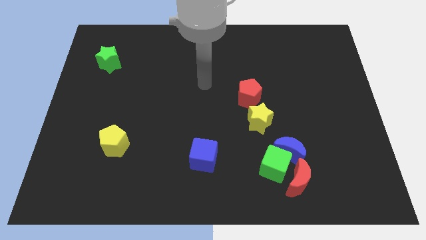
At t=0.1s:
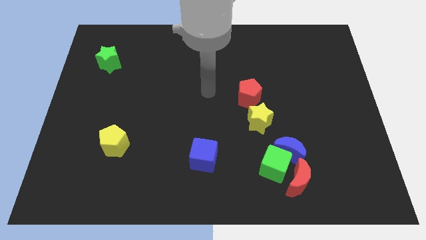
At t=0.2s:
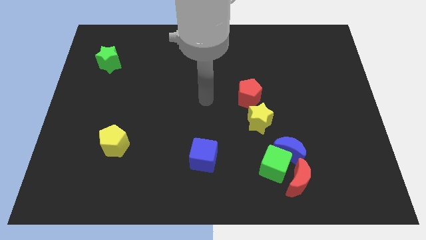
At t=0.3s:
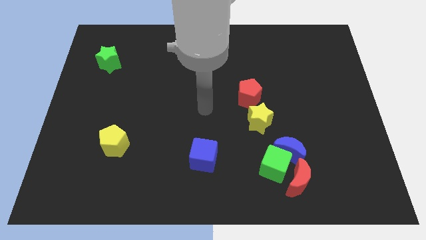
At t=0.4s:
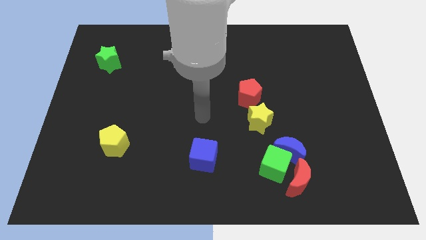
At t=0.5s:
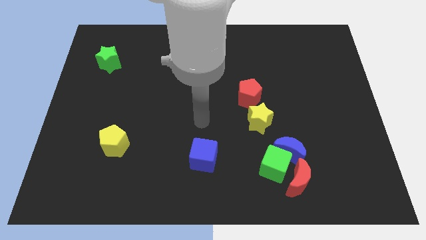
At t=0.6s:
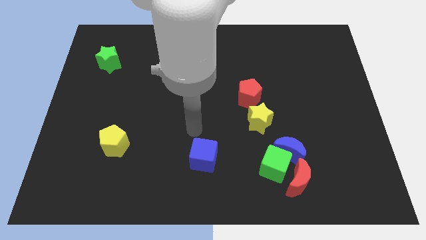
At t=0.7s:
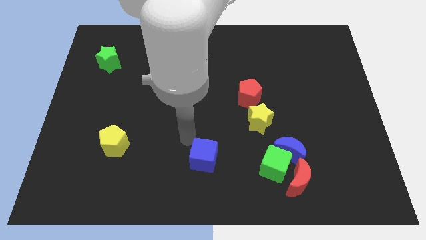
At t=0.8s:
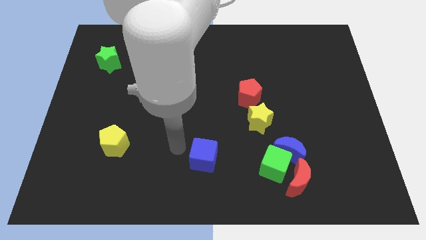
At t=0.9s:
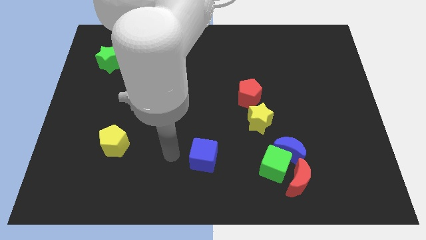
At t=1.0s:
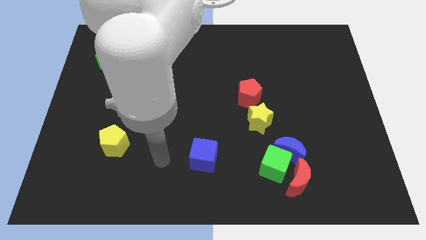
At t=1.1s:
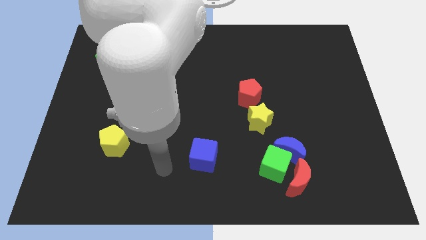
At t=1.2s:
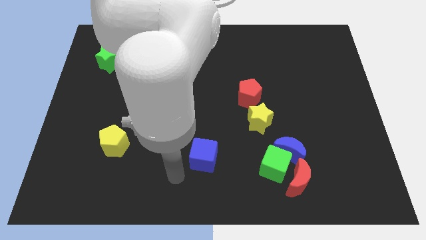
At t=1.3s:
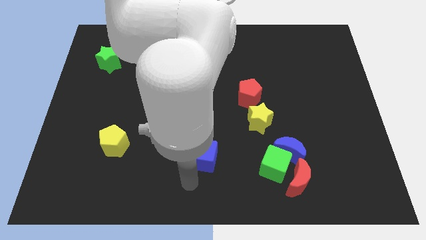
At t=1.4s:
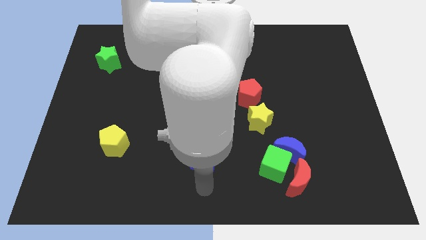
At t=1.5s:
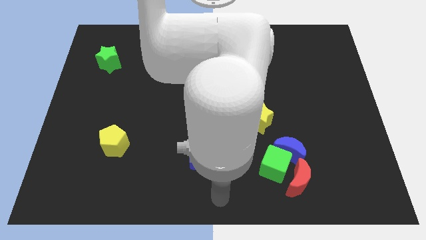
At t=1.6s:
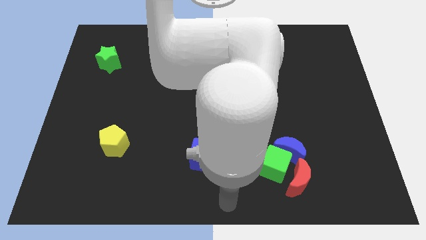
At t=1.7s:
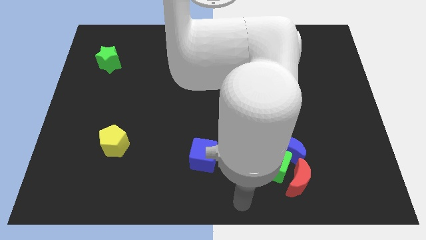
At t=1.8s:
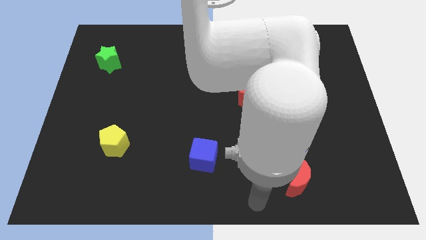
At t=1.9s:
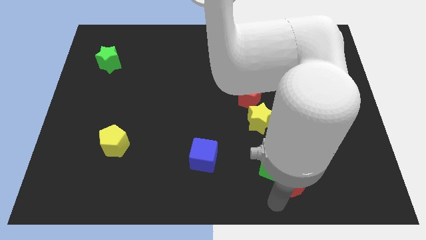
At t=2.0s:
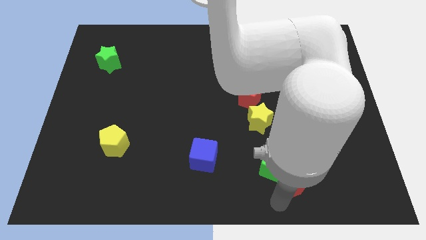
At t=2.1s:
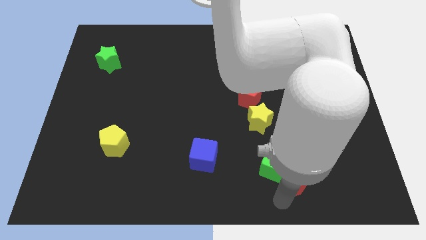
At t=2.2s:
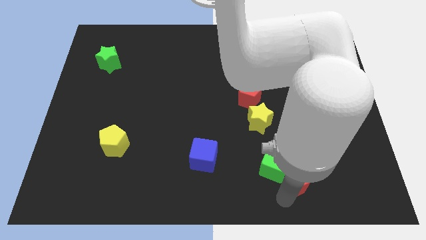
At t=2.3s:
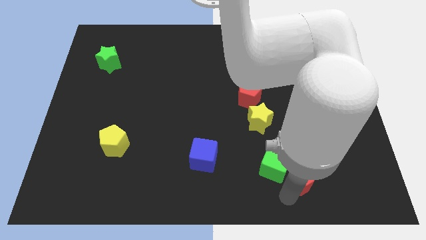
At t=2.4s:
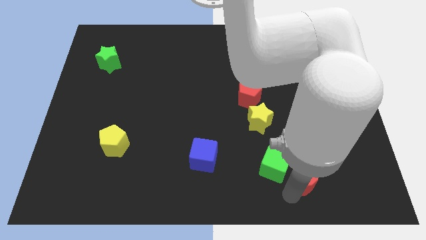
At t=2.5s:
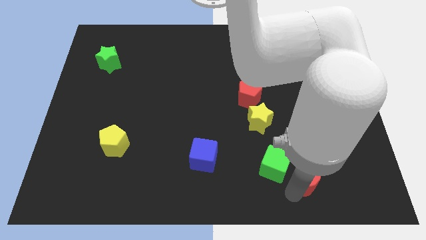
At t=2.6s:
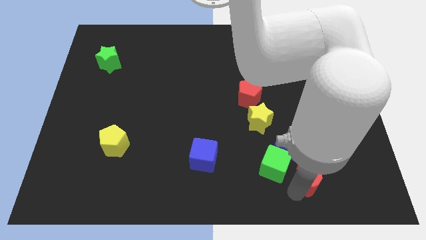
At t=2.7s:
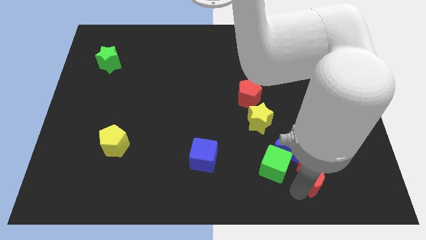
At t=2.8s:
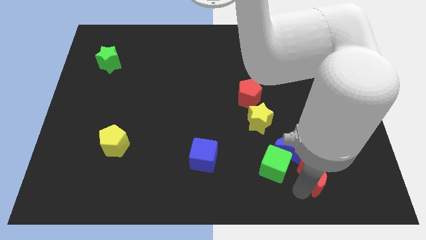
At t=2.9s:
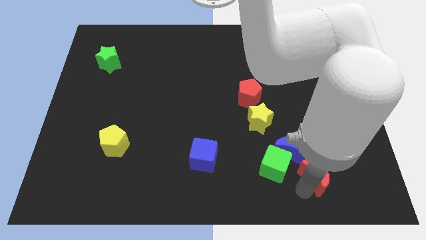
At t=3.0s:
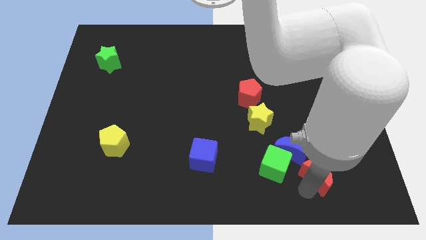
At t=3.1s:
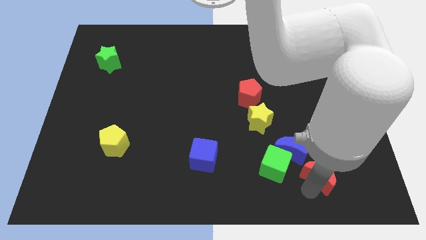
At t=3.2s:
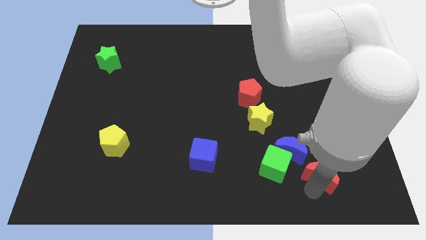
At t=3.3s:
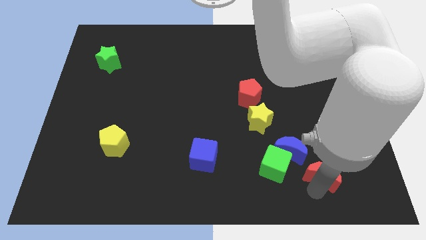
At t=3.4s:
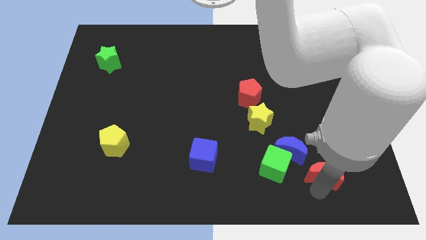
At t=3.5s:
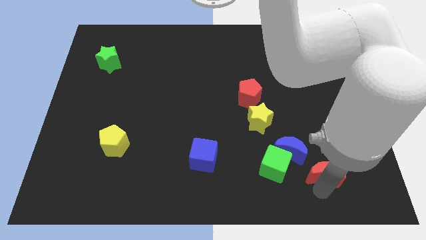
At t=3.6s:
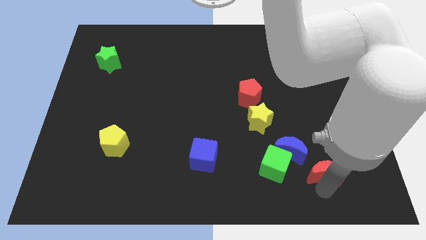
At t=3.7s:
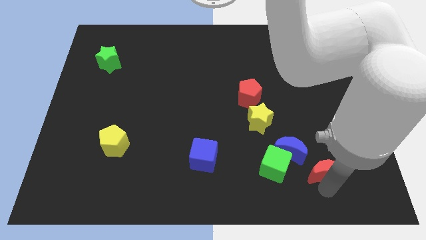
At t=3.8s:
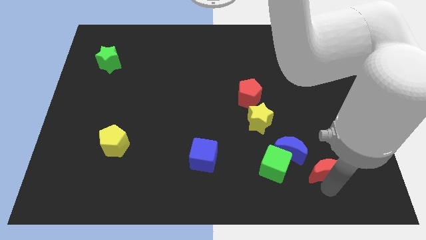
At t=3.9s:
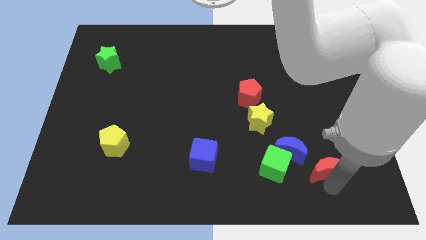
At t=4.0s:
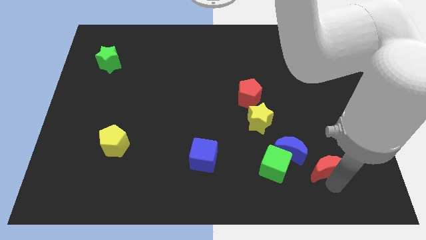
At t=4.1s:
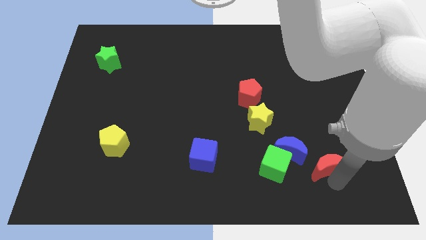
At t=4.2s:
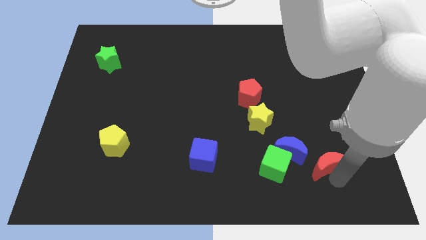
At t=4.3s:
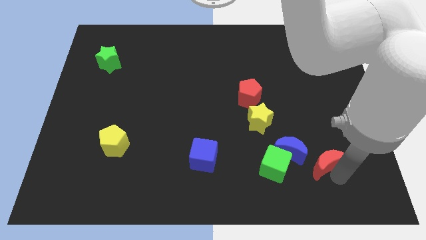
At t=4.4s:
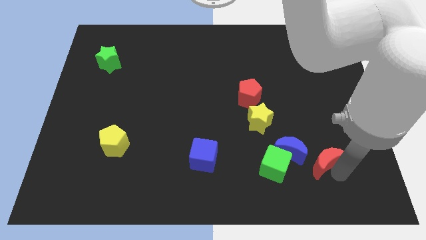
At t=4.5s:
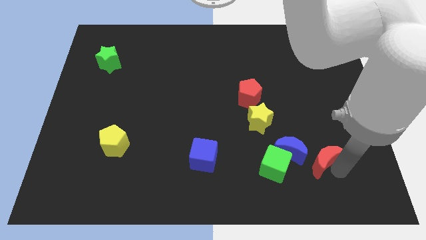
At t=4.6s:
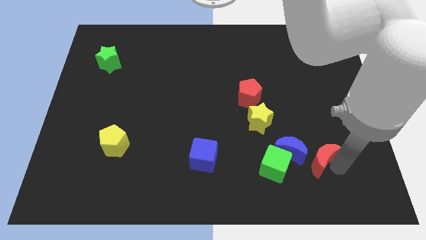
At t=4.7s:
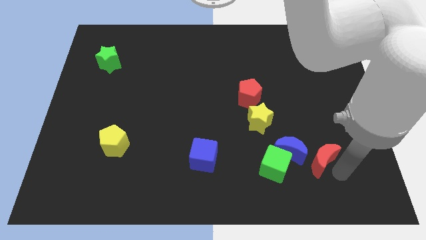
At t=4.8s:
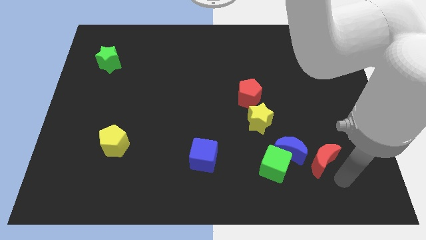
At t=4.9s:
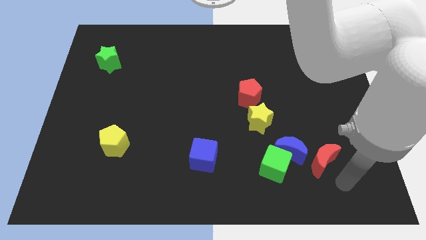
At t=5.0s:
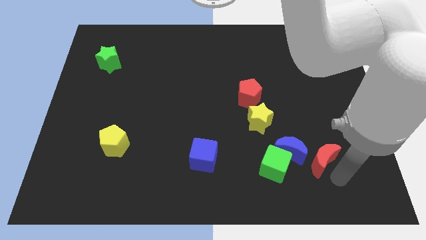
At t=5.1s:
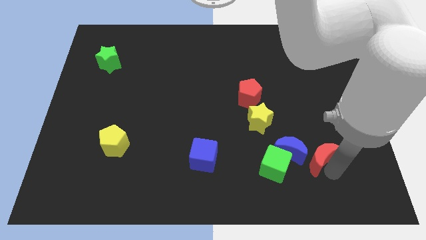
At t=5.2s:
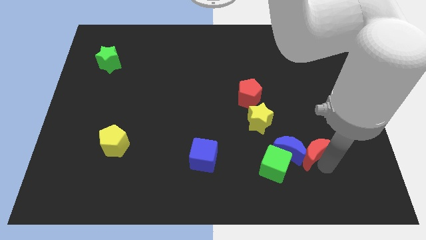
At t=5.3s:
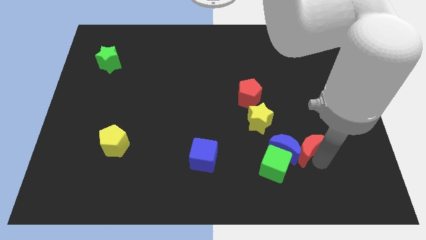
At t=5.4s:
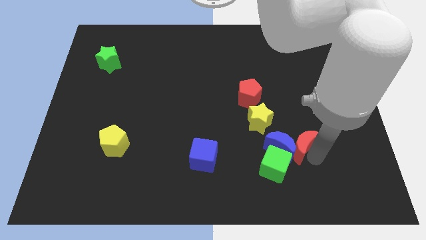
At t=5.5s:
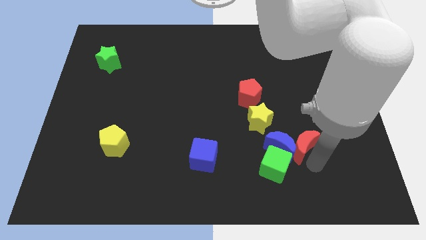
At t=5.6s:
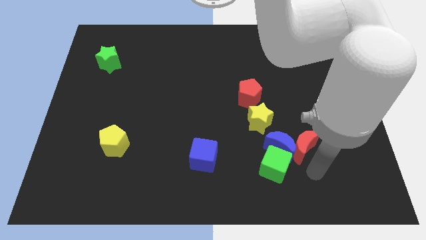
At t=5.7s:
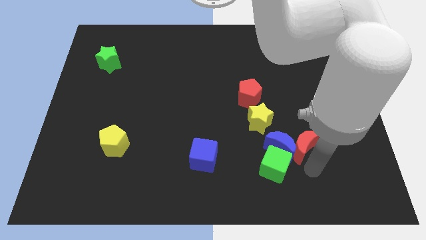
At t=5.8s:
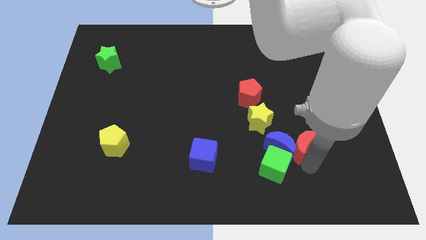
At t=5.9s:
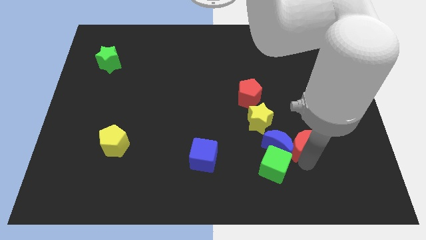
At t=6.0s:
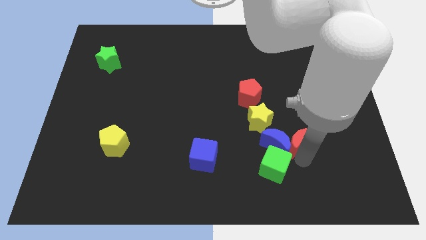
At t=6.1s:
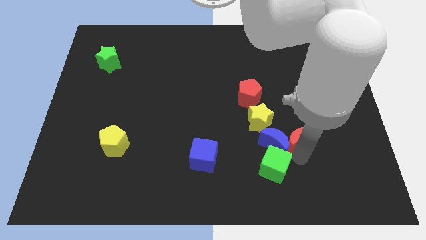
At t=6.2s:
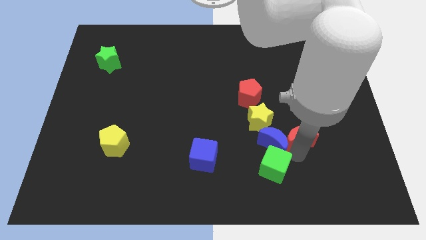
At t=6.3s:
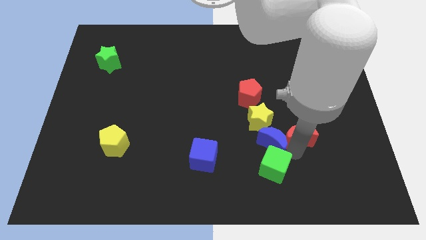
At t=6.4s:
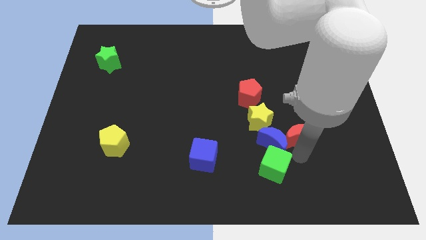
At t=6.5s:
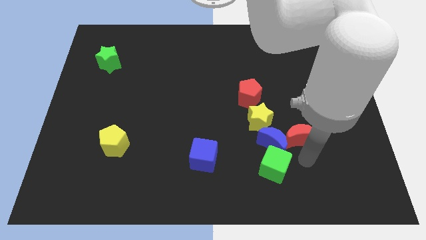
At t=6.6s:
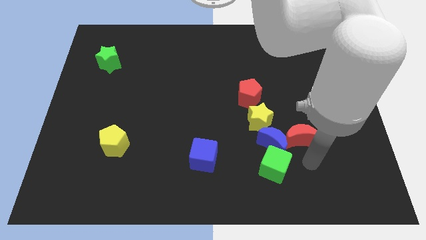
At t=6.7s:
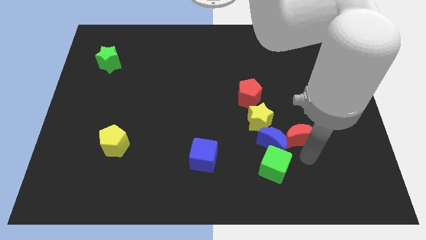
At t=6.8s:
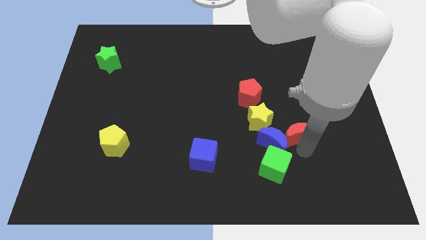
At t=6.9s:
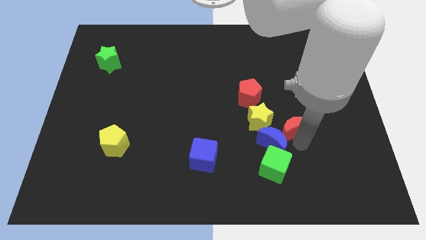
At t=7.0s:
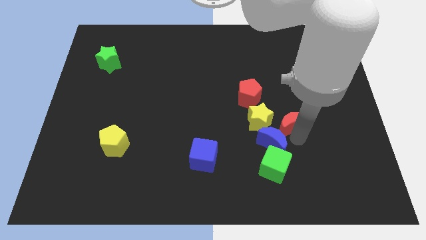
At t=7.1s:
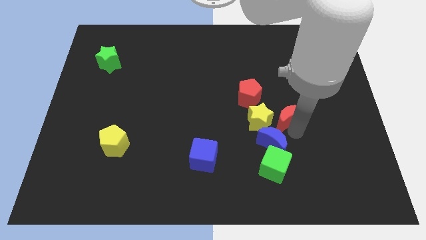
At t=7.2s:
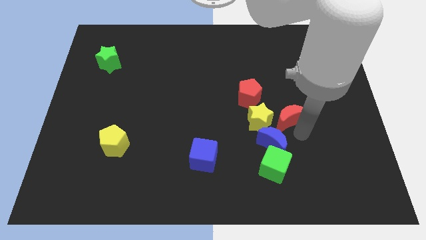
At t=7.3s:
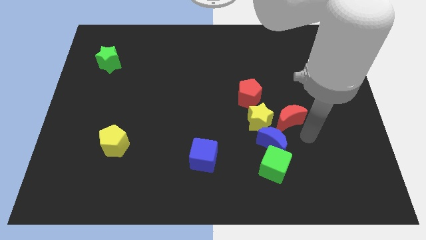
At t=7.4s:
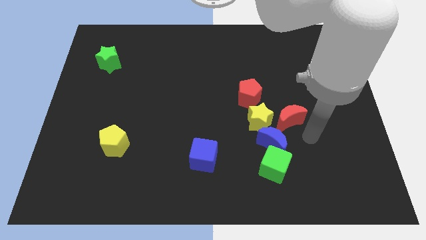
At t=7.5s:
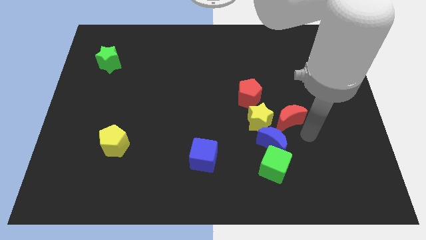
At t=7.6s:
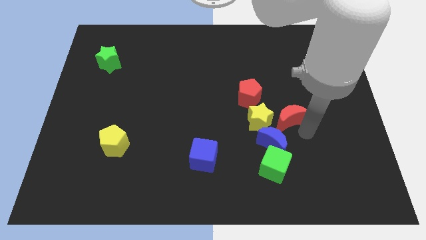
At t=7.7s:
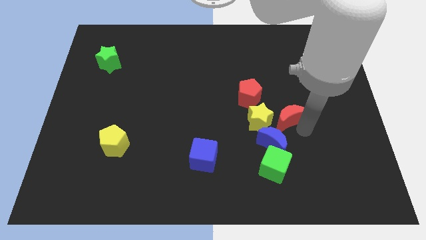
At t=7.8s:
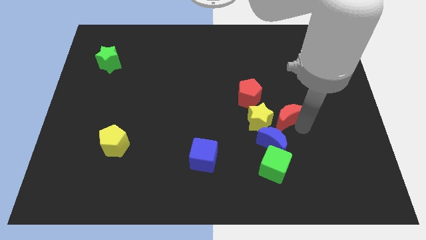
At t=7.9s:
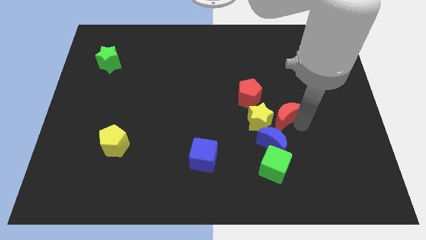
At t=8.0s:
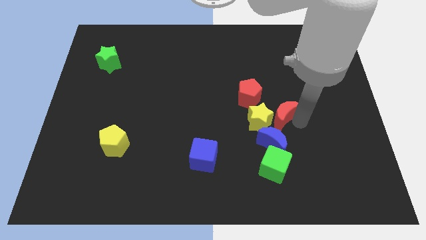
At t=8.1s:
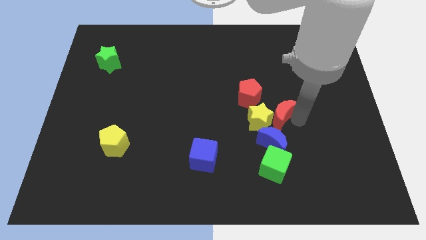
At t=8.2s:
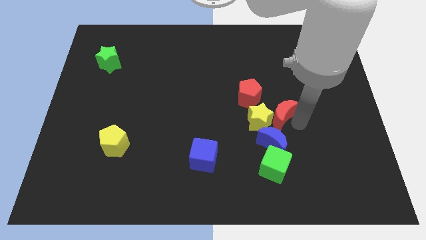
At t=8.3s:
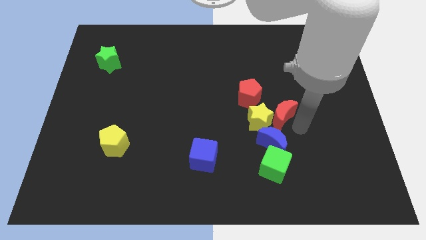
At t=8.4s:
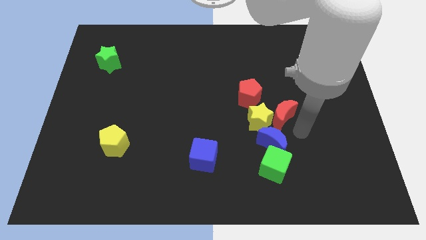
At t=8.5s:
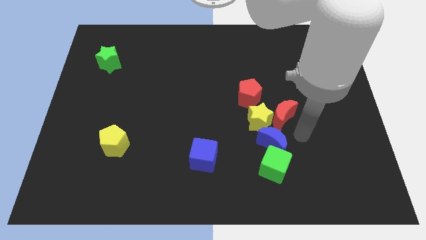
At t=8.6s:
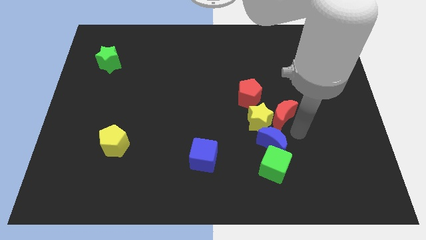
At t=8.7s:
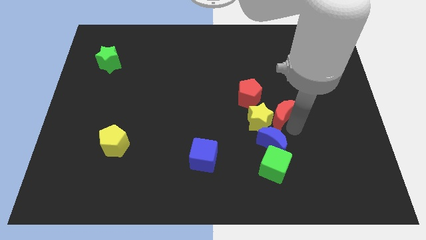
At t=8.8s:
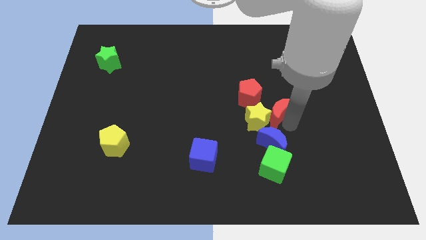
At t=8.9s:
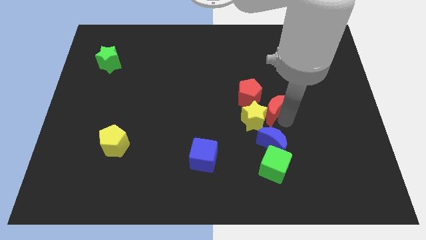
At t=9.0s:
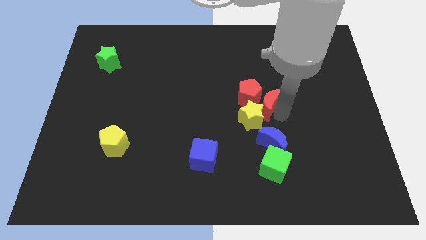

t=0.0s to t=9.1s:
slide the red moon to the red pentagon
